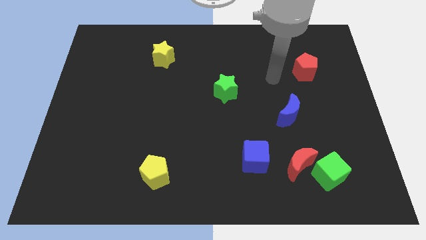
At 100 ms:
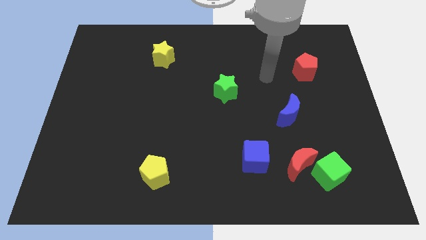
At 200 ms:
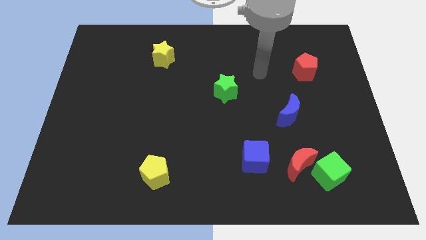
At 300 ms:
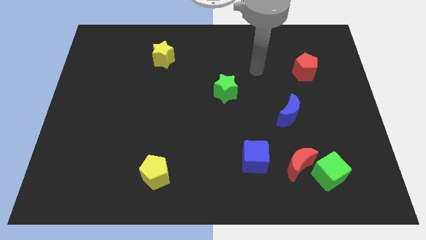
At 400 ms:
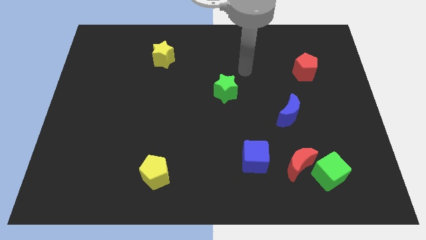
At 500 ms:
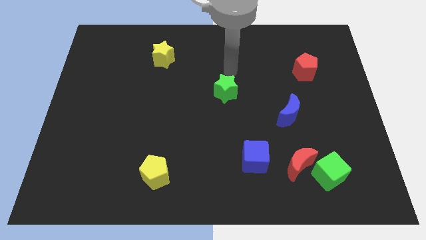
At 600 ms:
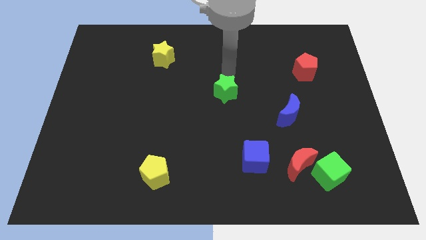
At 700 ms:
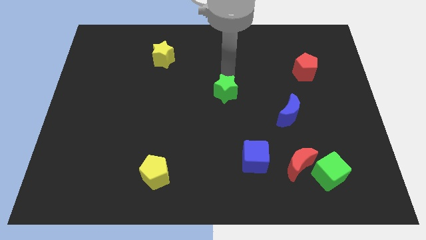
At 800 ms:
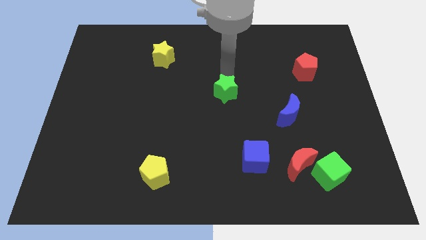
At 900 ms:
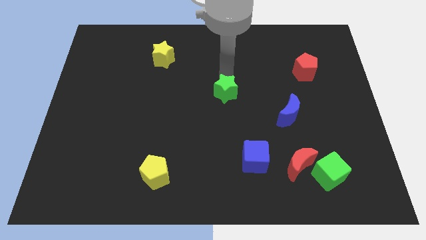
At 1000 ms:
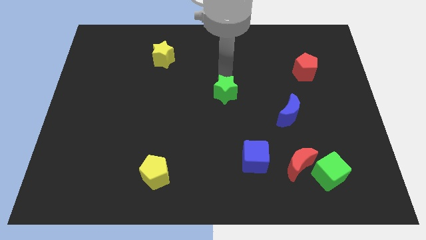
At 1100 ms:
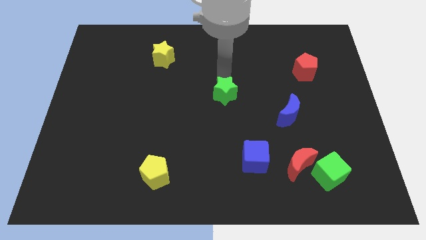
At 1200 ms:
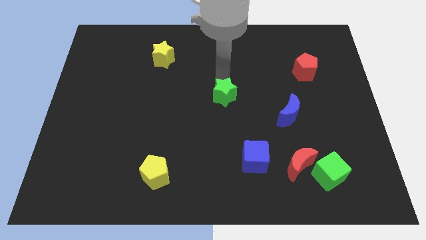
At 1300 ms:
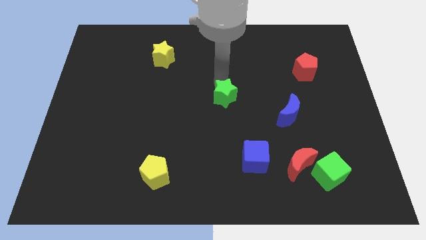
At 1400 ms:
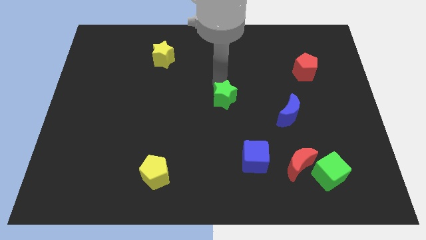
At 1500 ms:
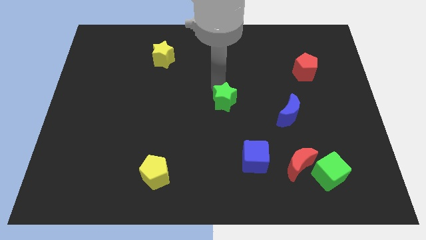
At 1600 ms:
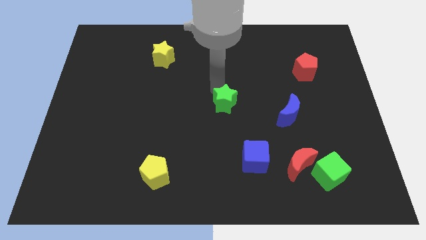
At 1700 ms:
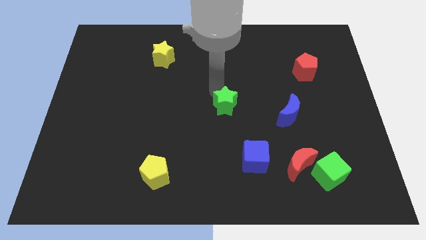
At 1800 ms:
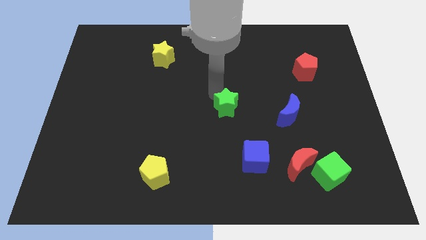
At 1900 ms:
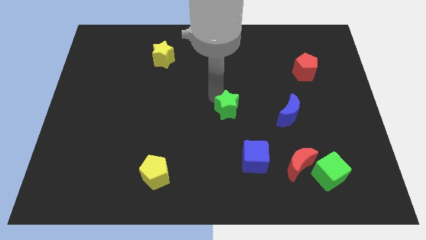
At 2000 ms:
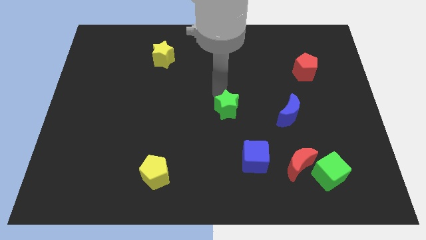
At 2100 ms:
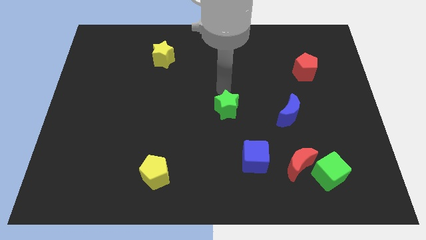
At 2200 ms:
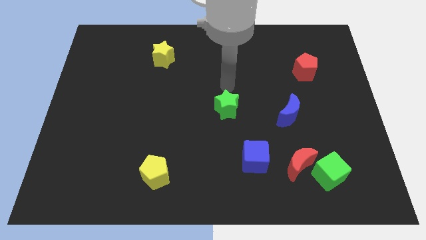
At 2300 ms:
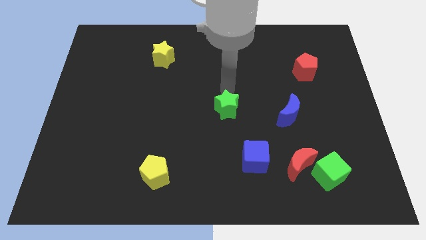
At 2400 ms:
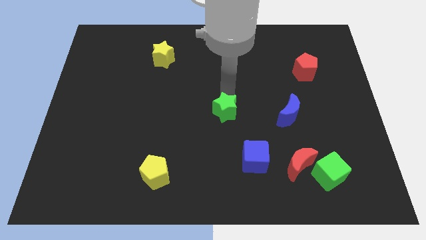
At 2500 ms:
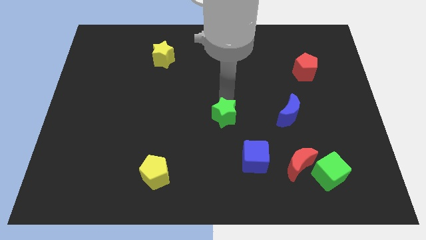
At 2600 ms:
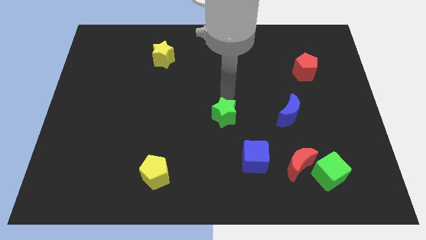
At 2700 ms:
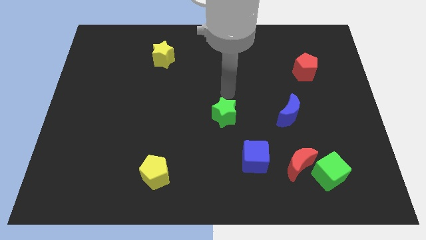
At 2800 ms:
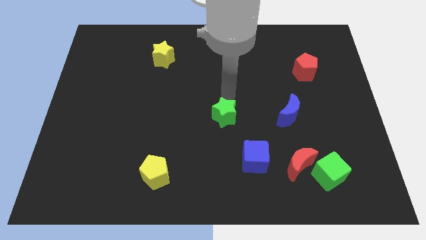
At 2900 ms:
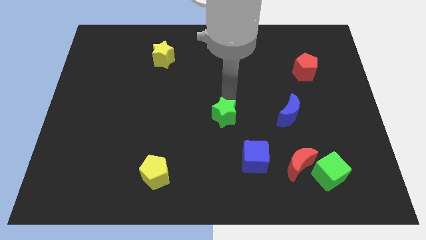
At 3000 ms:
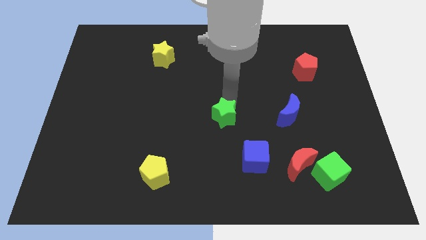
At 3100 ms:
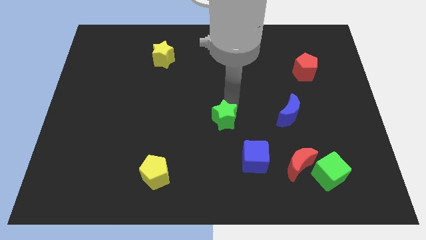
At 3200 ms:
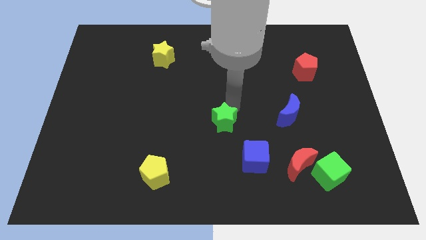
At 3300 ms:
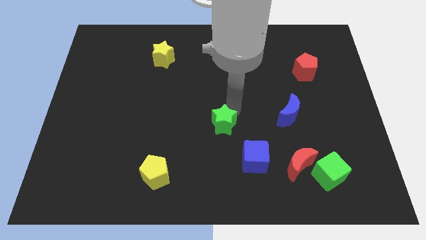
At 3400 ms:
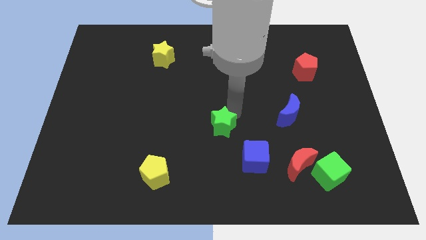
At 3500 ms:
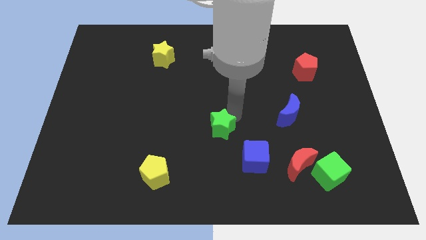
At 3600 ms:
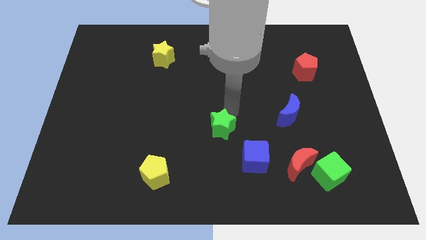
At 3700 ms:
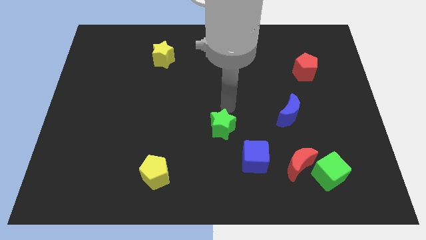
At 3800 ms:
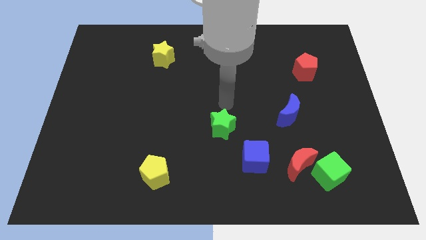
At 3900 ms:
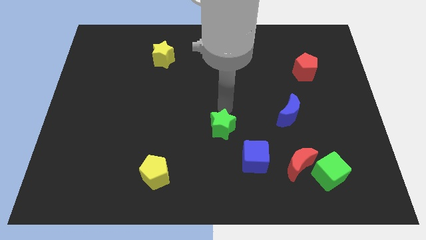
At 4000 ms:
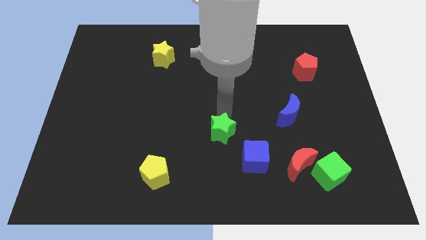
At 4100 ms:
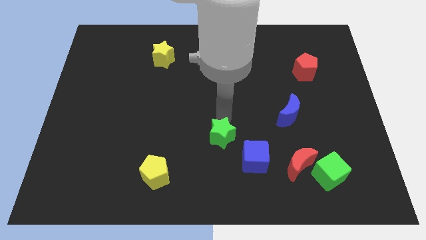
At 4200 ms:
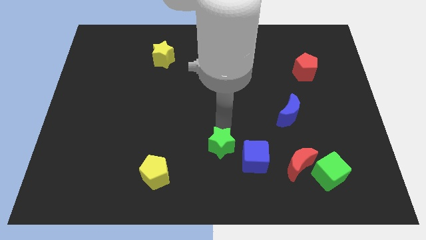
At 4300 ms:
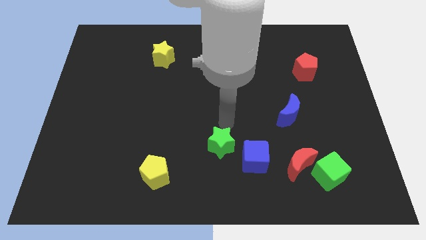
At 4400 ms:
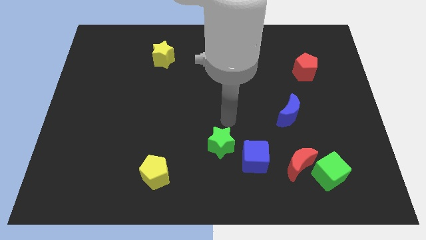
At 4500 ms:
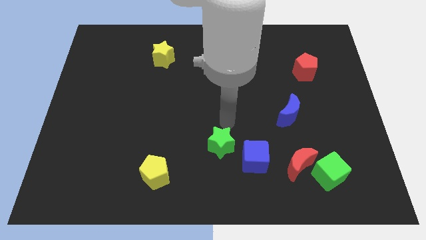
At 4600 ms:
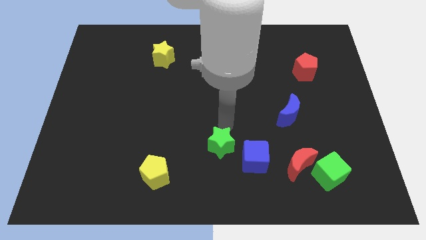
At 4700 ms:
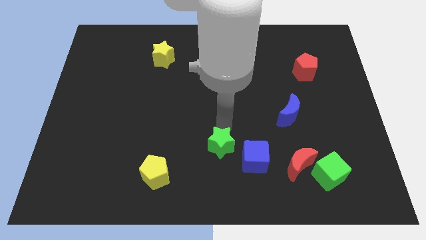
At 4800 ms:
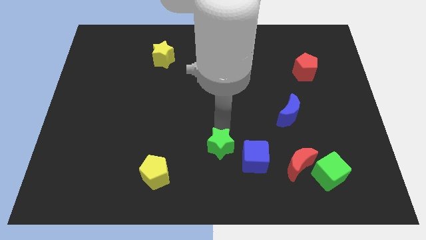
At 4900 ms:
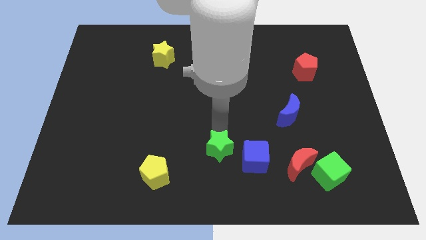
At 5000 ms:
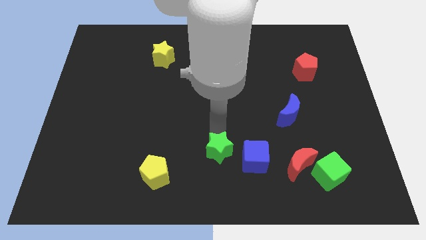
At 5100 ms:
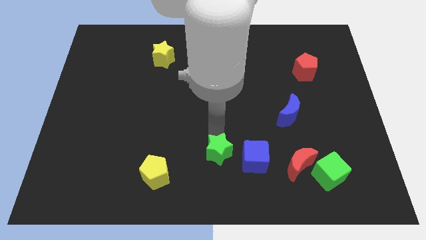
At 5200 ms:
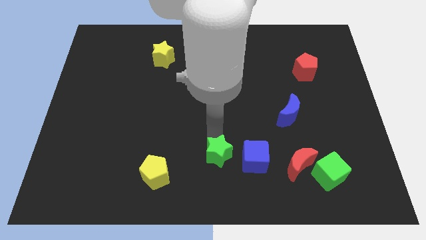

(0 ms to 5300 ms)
push the green star to the bottom side

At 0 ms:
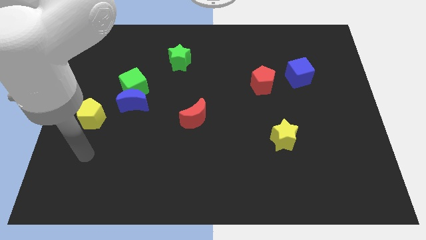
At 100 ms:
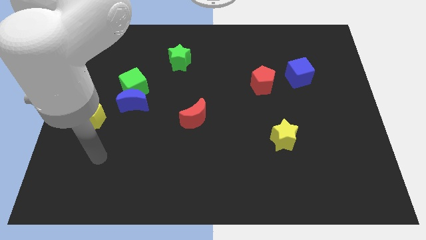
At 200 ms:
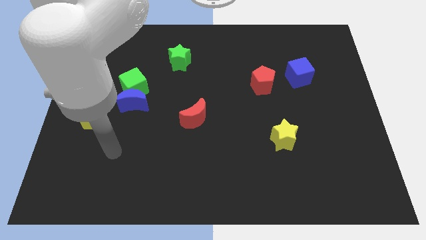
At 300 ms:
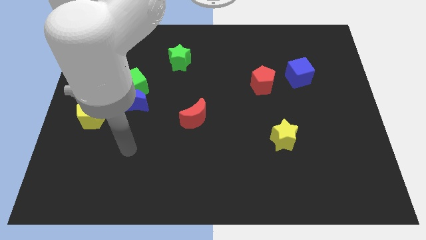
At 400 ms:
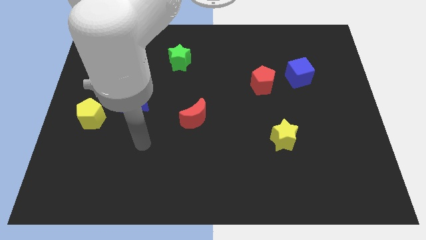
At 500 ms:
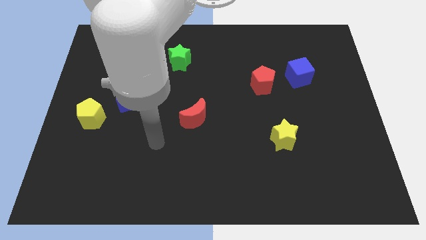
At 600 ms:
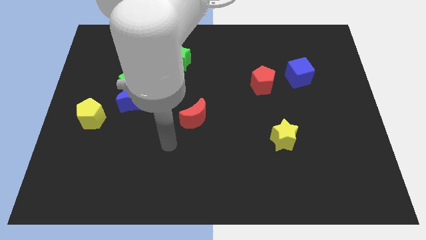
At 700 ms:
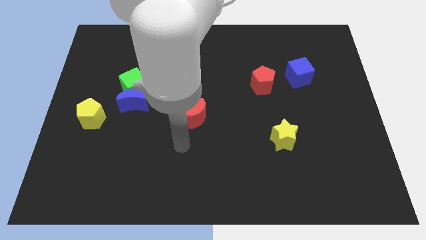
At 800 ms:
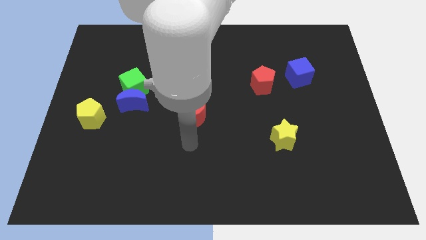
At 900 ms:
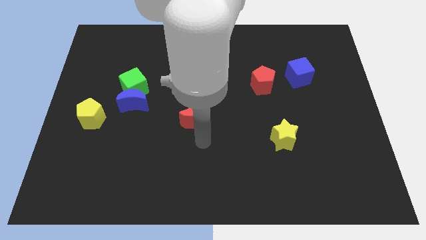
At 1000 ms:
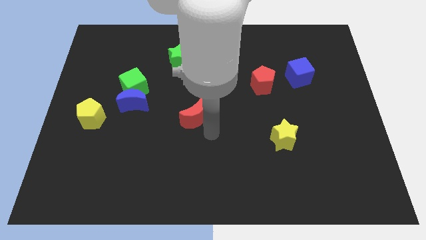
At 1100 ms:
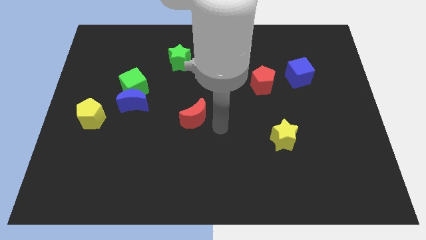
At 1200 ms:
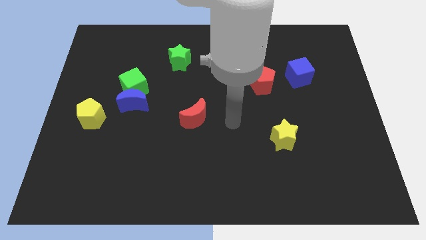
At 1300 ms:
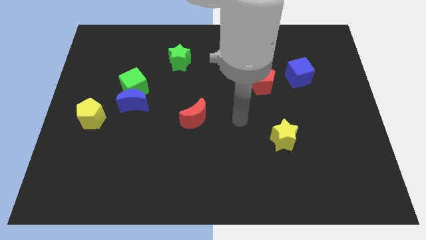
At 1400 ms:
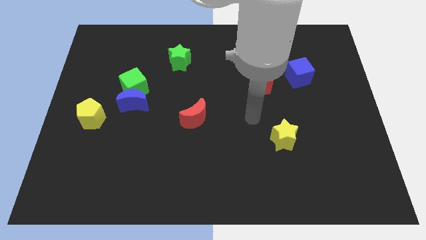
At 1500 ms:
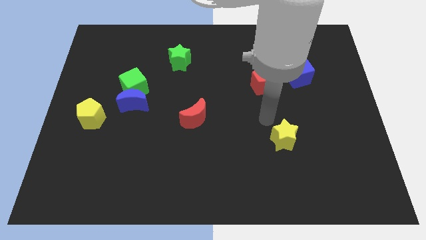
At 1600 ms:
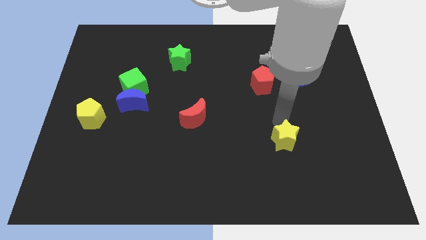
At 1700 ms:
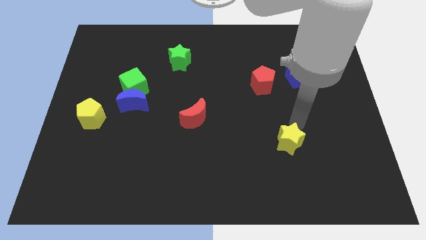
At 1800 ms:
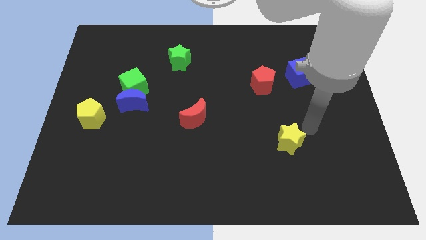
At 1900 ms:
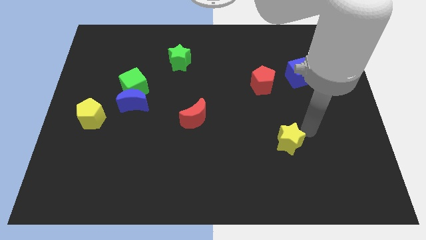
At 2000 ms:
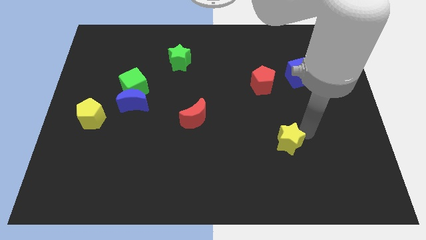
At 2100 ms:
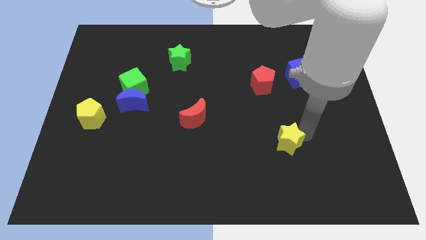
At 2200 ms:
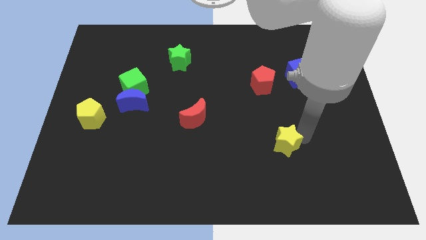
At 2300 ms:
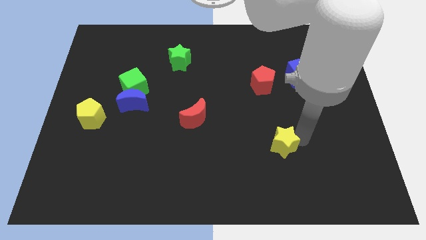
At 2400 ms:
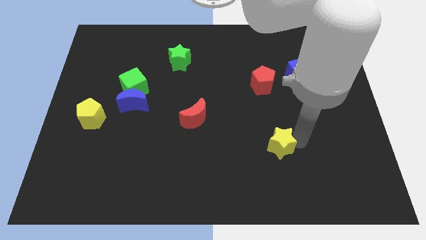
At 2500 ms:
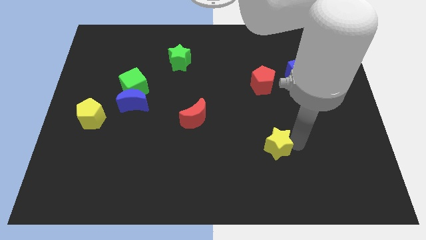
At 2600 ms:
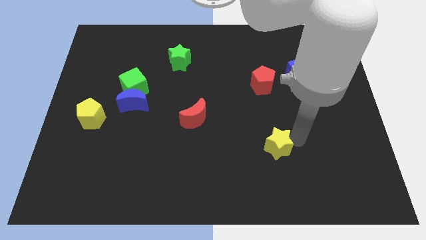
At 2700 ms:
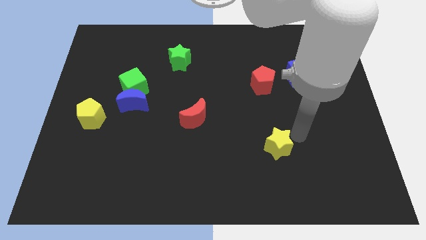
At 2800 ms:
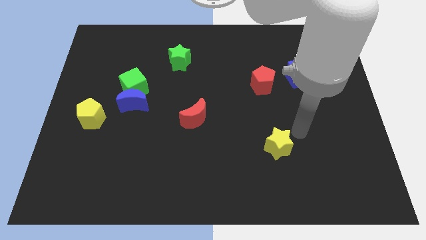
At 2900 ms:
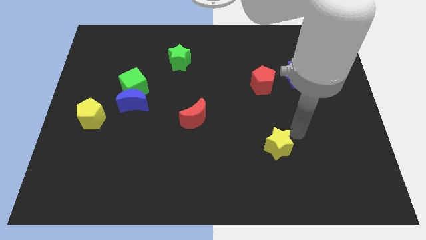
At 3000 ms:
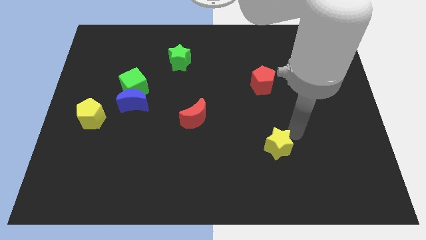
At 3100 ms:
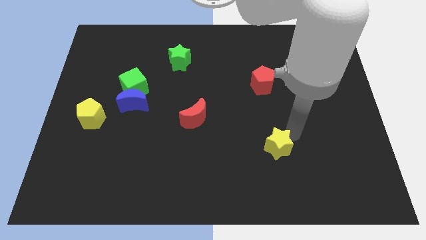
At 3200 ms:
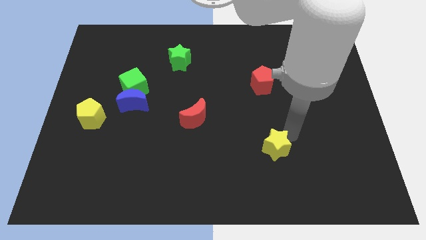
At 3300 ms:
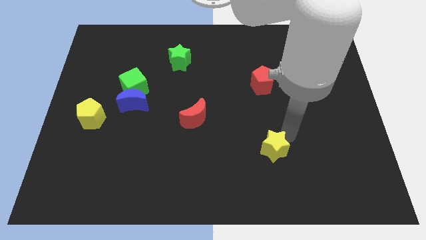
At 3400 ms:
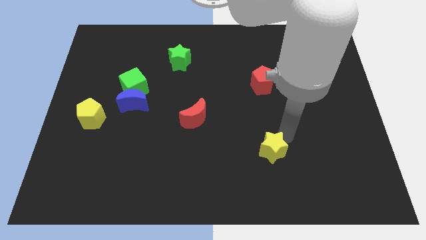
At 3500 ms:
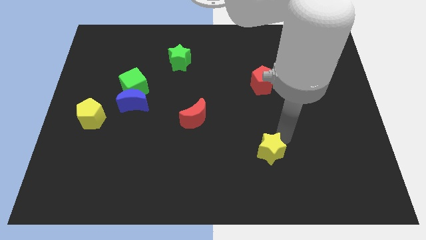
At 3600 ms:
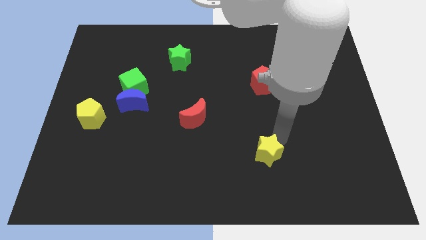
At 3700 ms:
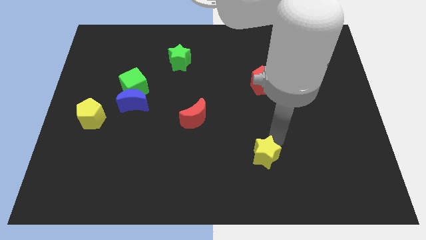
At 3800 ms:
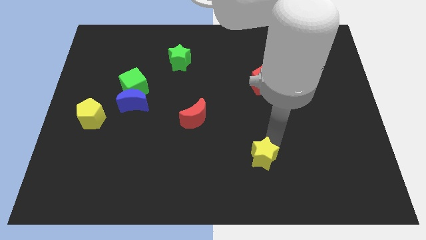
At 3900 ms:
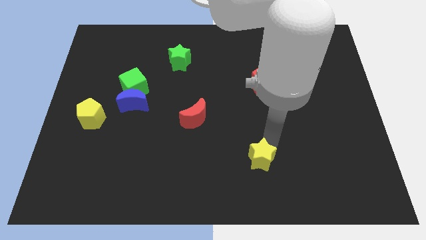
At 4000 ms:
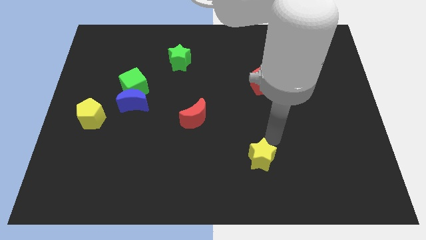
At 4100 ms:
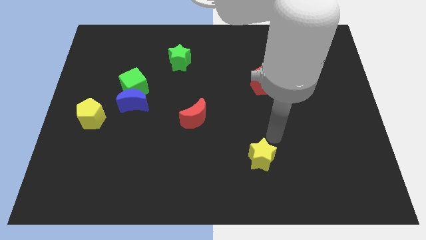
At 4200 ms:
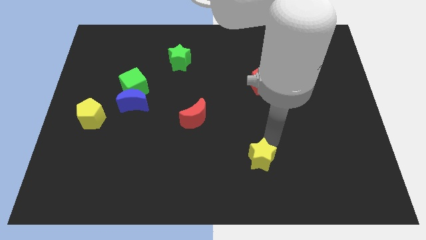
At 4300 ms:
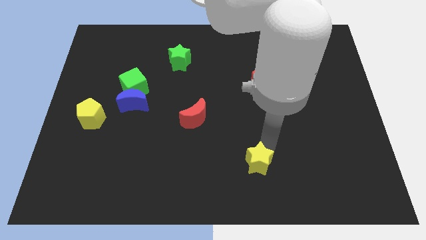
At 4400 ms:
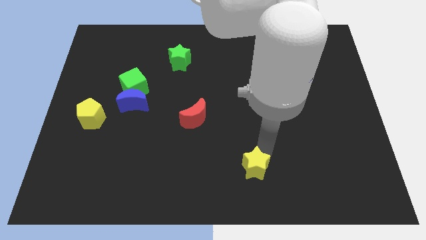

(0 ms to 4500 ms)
push the yellow star to the bottom side
